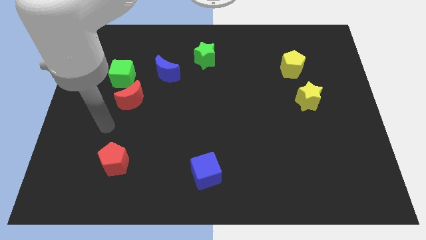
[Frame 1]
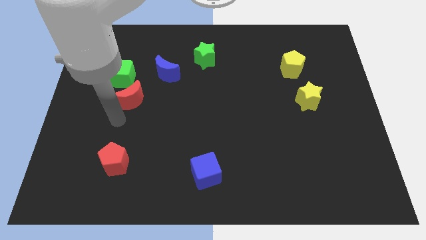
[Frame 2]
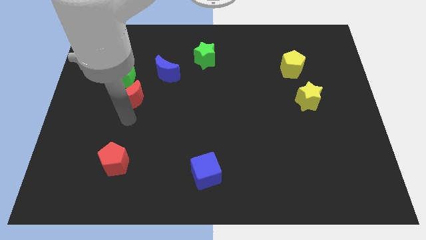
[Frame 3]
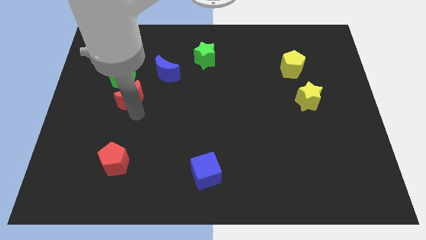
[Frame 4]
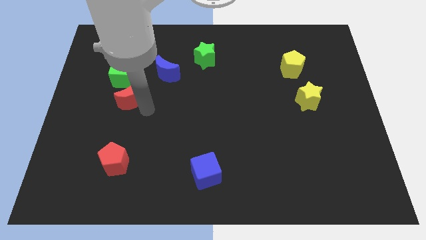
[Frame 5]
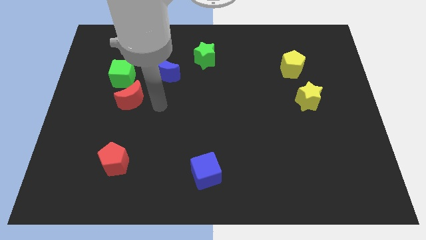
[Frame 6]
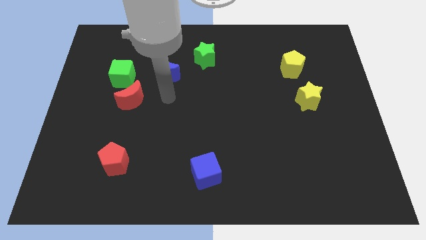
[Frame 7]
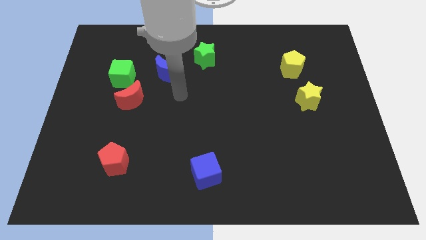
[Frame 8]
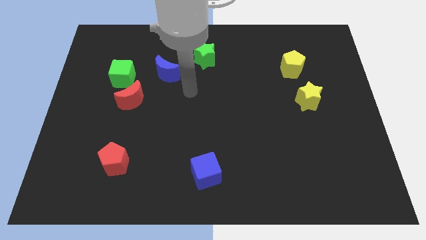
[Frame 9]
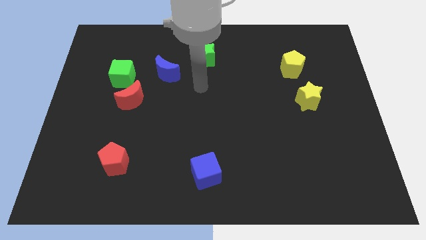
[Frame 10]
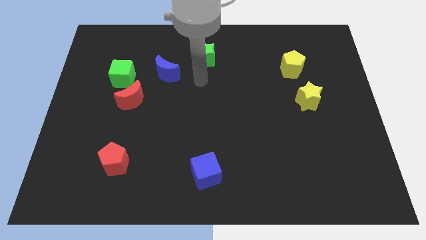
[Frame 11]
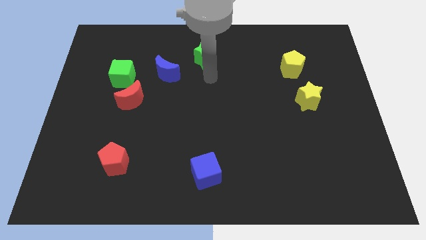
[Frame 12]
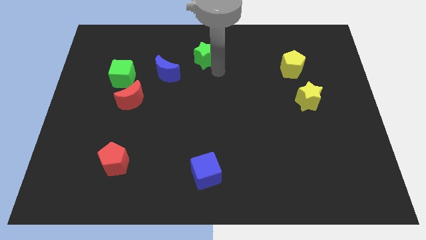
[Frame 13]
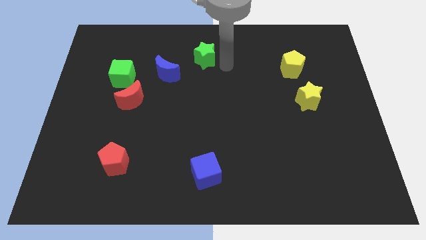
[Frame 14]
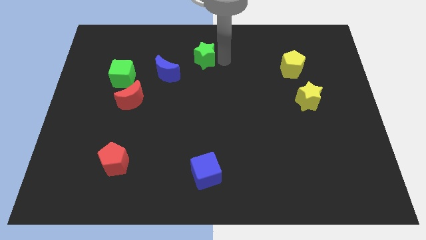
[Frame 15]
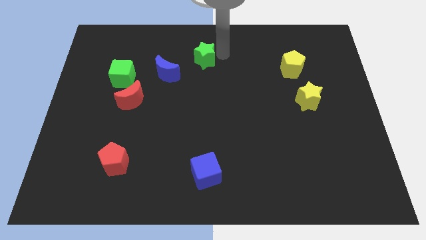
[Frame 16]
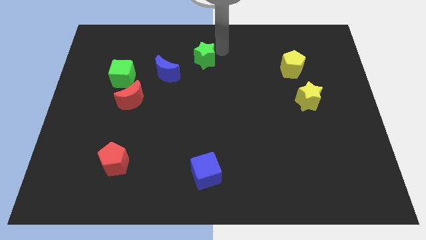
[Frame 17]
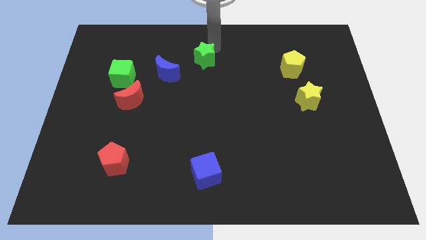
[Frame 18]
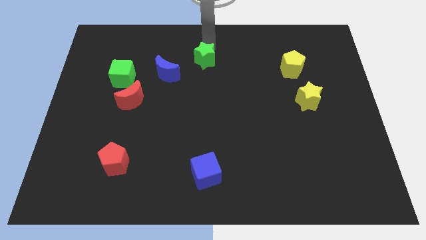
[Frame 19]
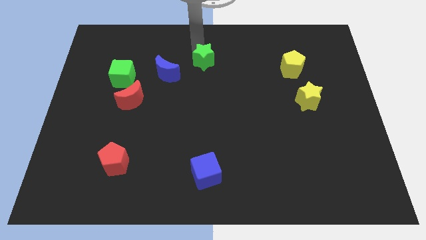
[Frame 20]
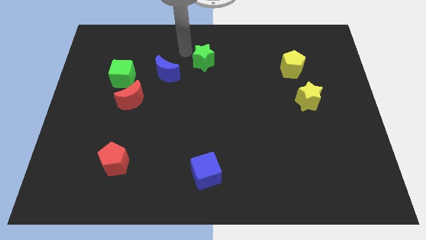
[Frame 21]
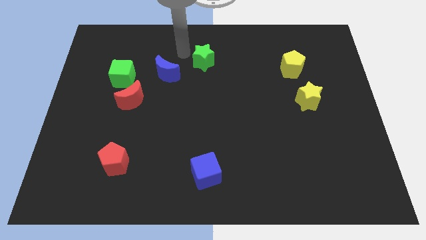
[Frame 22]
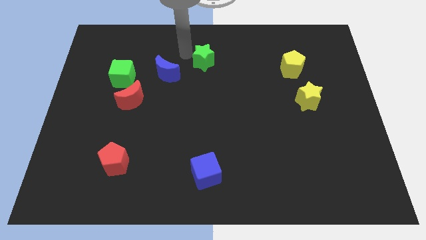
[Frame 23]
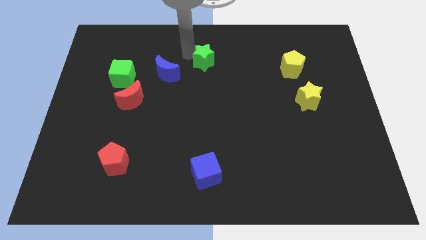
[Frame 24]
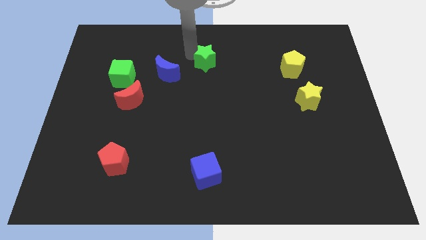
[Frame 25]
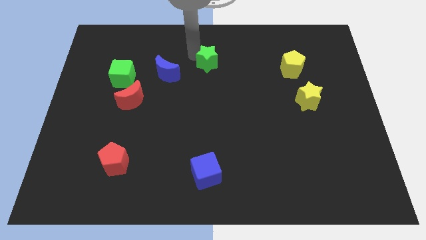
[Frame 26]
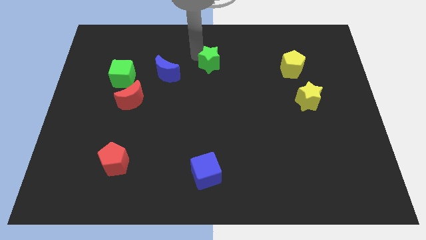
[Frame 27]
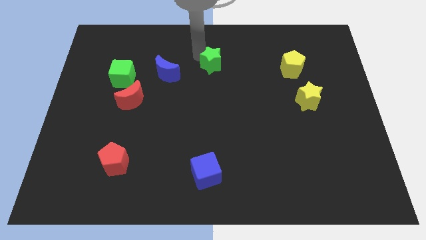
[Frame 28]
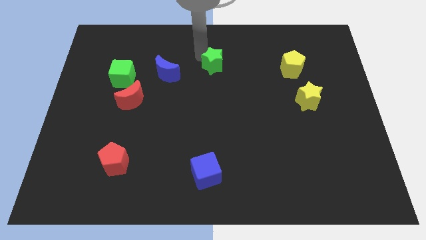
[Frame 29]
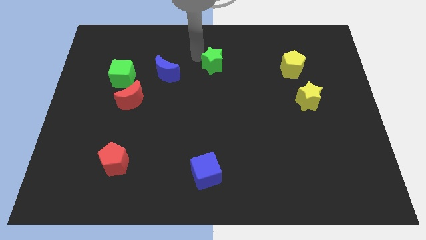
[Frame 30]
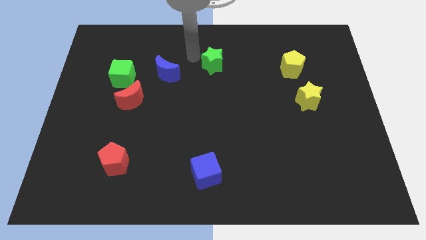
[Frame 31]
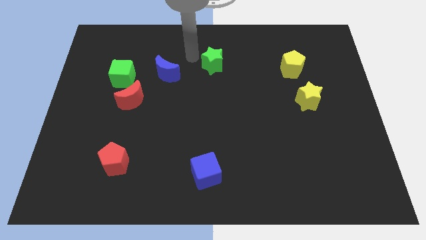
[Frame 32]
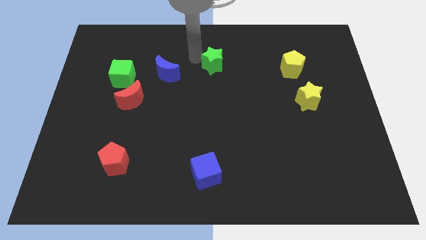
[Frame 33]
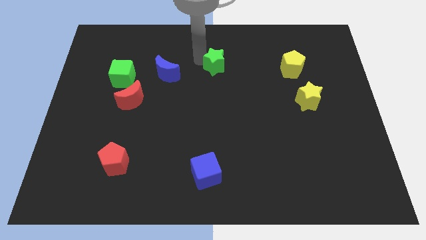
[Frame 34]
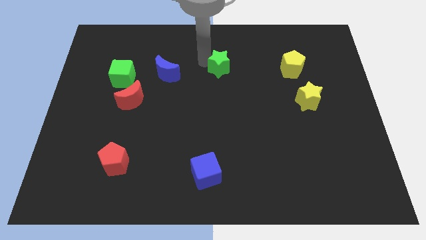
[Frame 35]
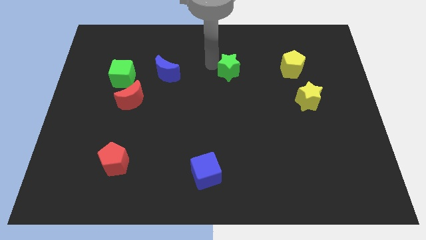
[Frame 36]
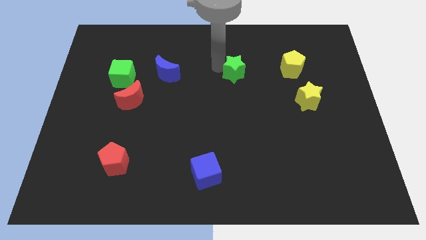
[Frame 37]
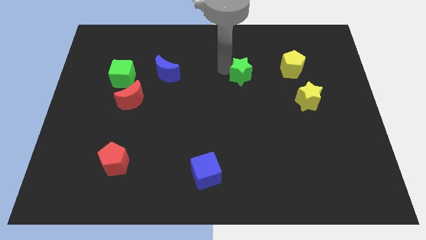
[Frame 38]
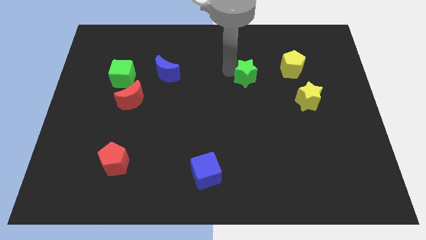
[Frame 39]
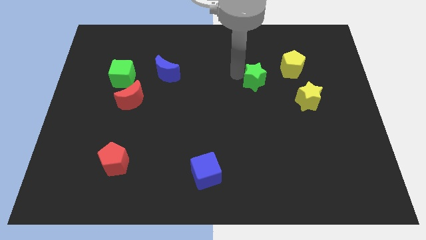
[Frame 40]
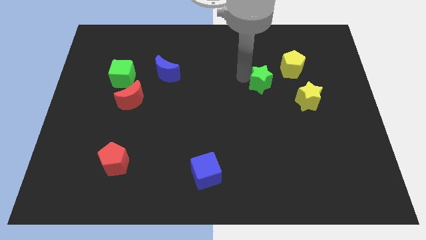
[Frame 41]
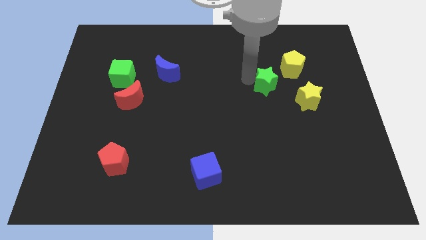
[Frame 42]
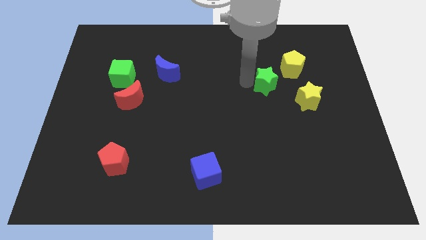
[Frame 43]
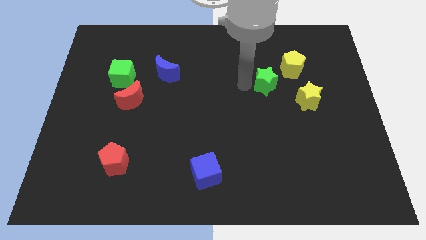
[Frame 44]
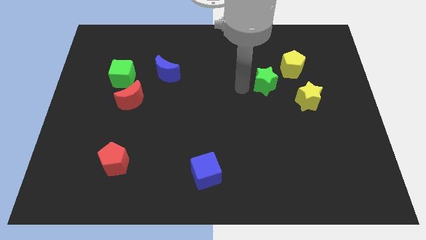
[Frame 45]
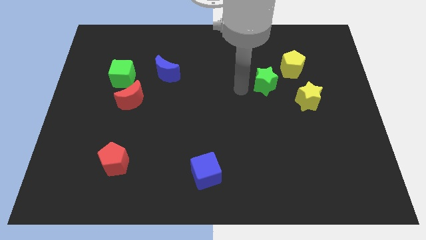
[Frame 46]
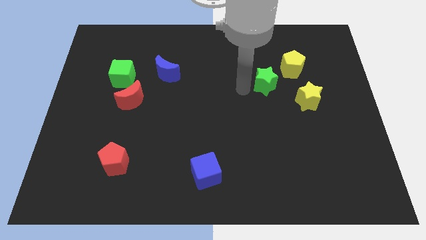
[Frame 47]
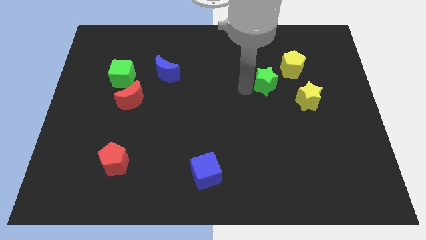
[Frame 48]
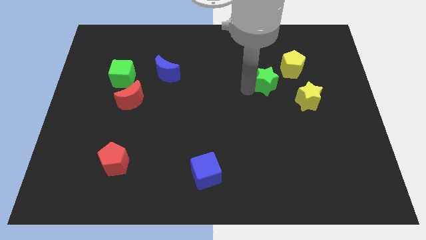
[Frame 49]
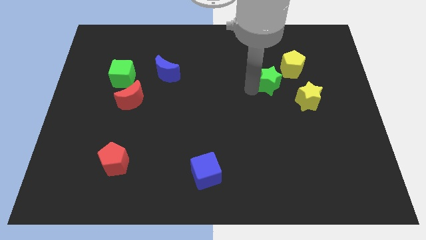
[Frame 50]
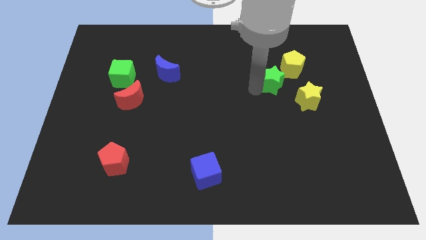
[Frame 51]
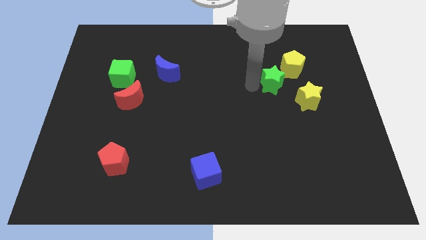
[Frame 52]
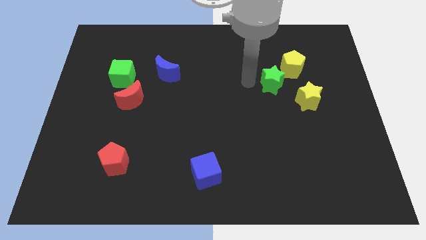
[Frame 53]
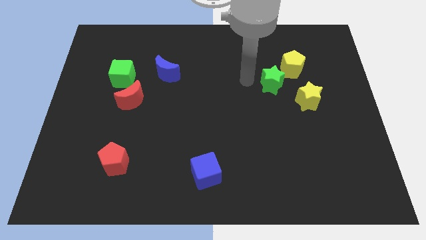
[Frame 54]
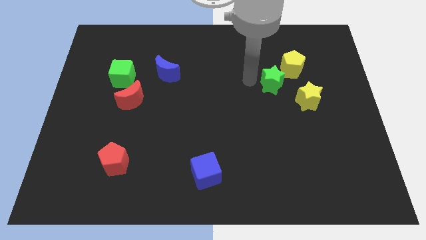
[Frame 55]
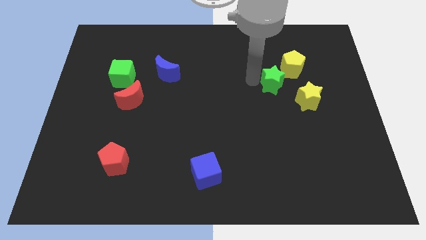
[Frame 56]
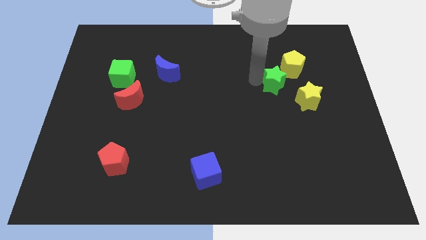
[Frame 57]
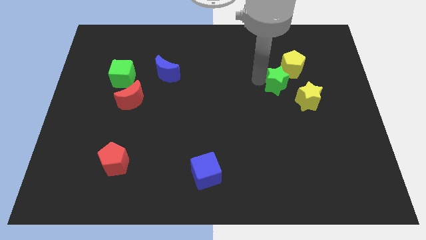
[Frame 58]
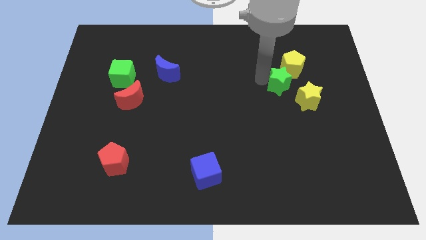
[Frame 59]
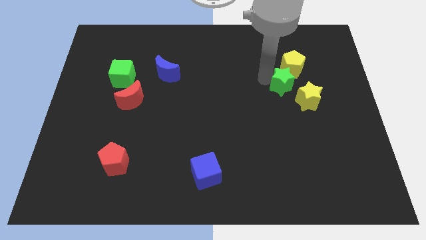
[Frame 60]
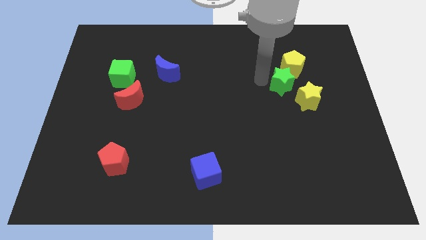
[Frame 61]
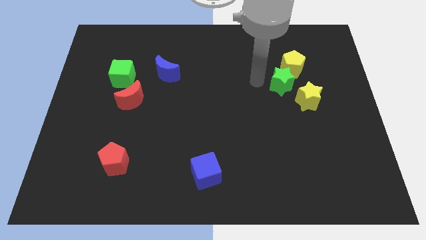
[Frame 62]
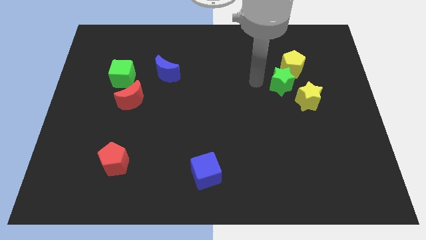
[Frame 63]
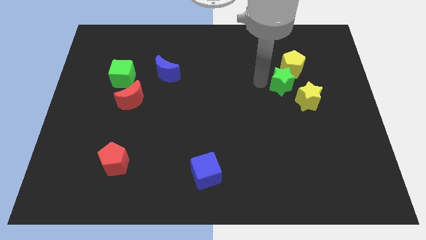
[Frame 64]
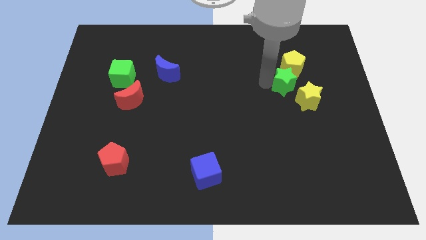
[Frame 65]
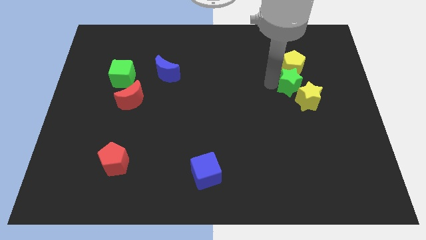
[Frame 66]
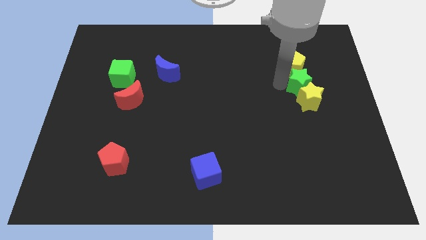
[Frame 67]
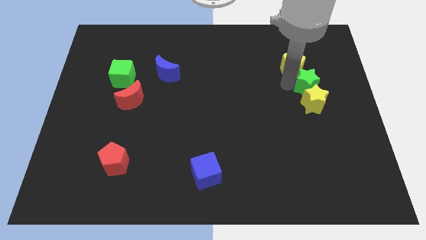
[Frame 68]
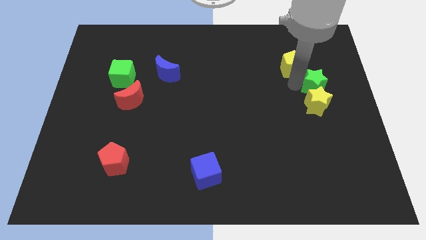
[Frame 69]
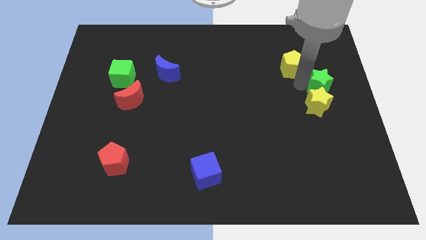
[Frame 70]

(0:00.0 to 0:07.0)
slide the green star to the center right

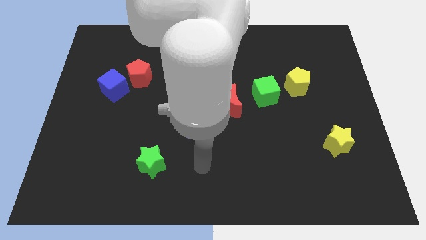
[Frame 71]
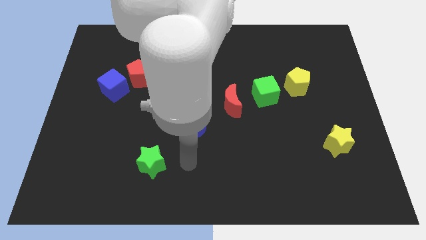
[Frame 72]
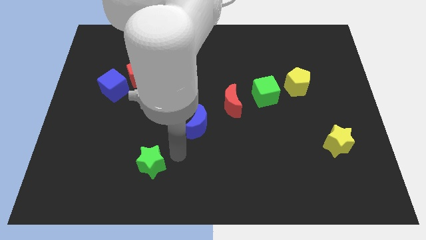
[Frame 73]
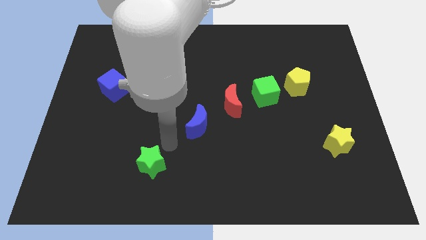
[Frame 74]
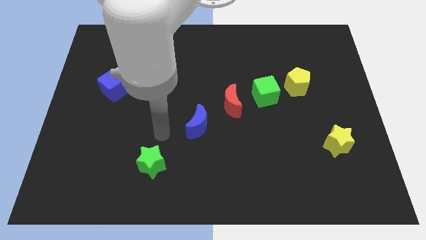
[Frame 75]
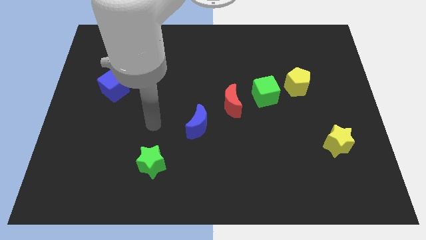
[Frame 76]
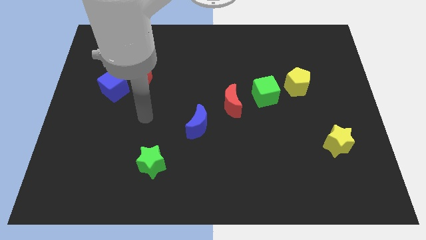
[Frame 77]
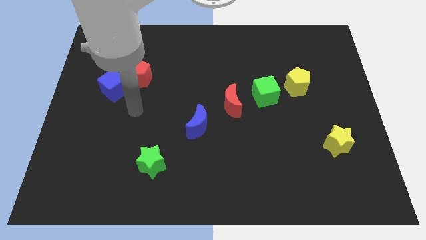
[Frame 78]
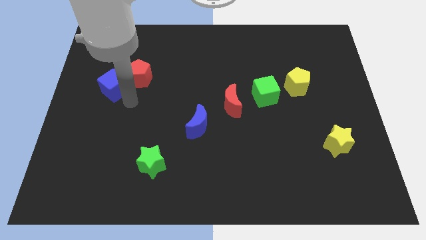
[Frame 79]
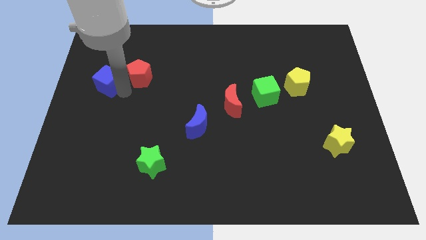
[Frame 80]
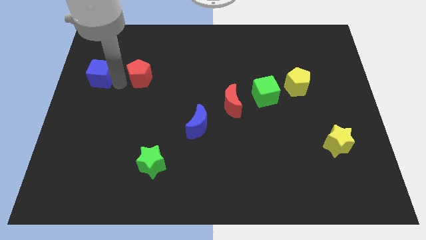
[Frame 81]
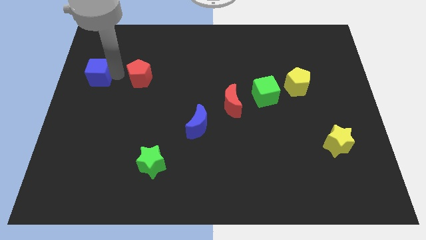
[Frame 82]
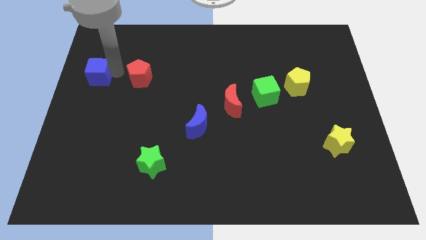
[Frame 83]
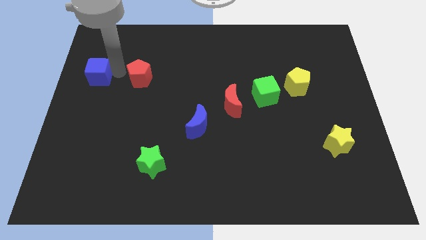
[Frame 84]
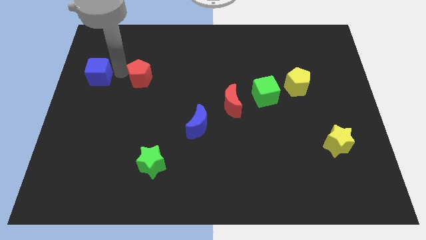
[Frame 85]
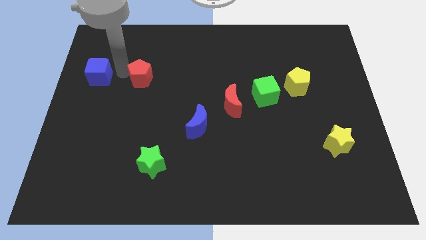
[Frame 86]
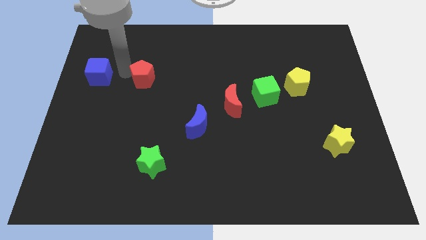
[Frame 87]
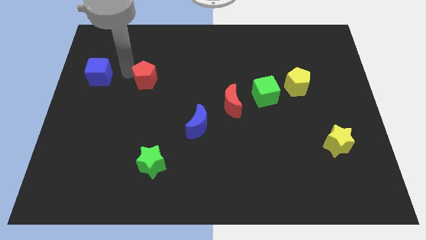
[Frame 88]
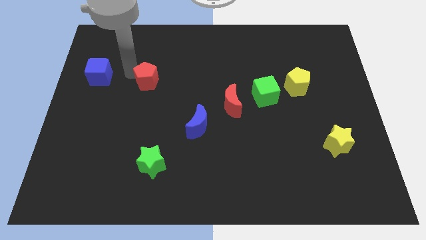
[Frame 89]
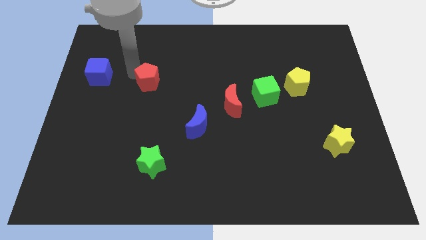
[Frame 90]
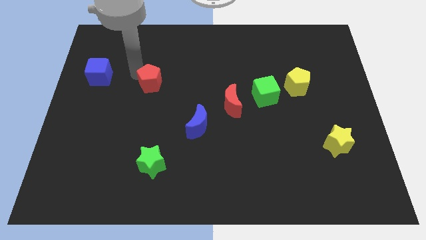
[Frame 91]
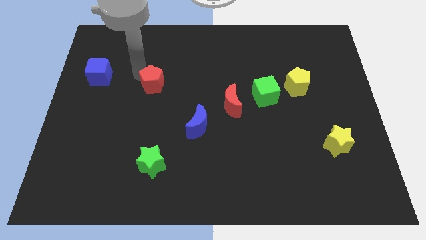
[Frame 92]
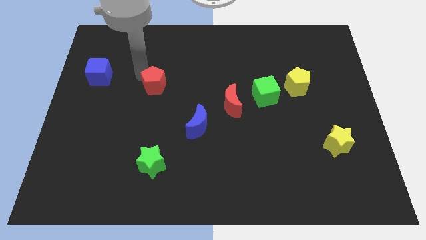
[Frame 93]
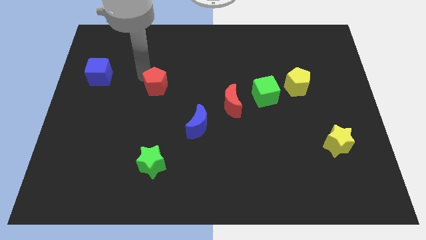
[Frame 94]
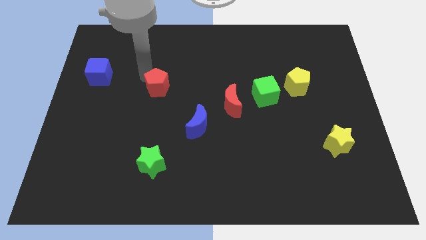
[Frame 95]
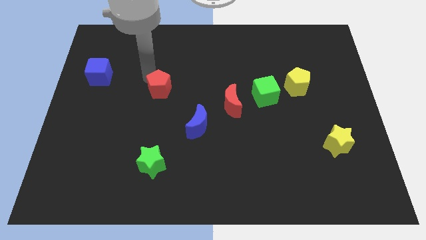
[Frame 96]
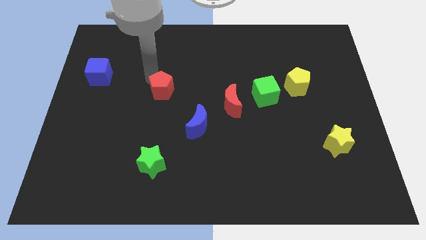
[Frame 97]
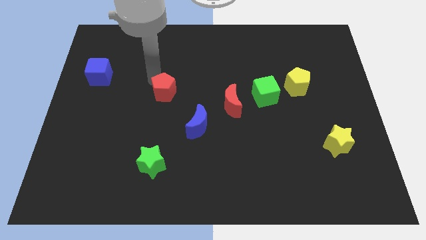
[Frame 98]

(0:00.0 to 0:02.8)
put the red pentagon to the middle of the board
